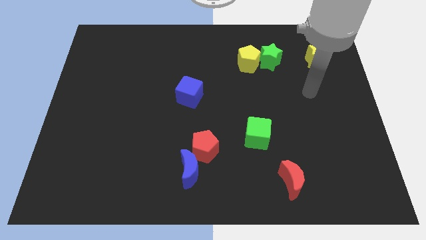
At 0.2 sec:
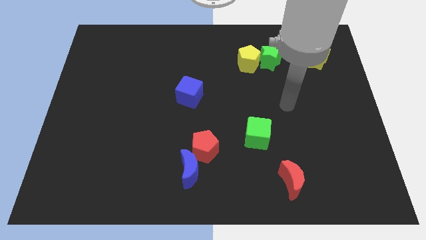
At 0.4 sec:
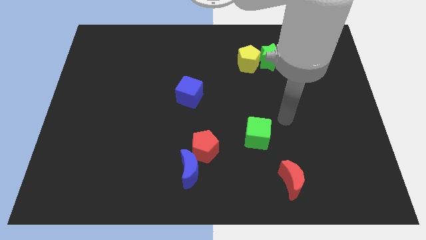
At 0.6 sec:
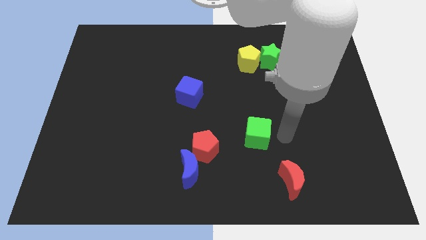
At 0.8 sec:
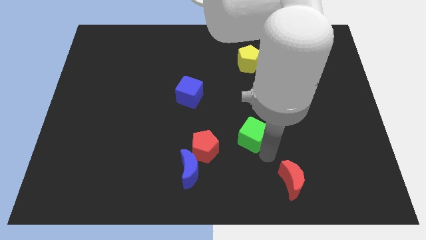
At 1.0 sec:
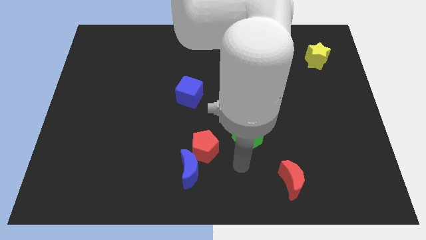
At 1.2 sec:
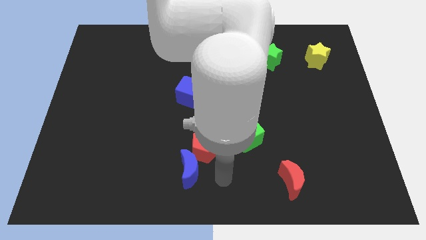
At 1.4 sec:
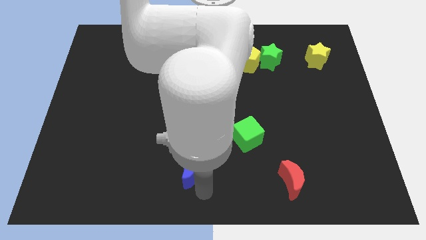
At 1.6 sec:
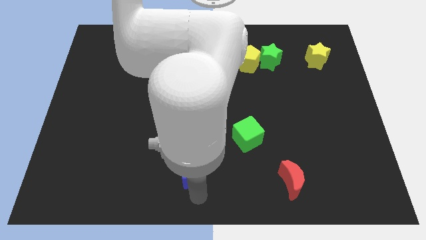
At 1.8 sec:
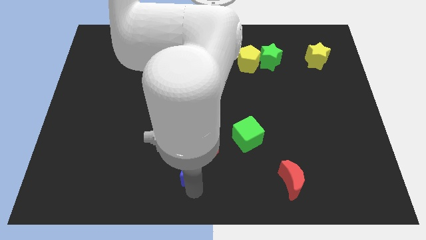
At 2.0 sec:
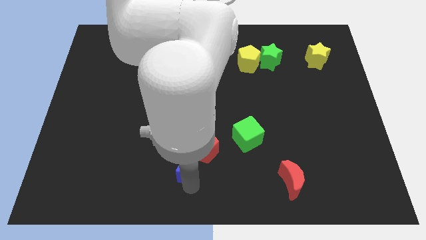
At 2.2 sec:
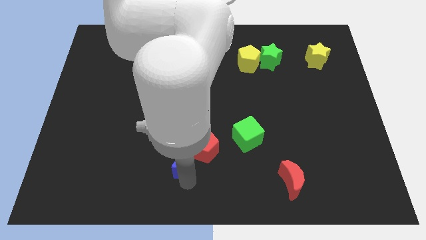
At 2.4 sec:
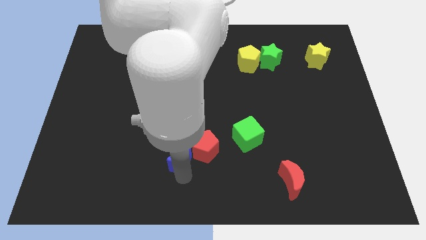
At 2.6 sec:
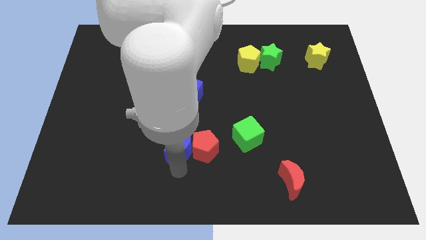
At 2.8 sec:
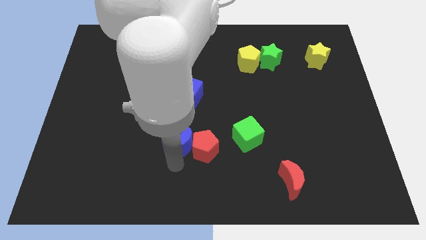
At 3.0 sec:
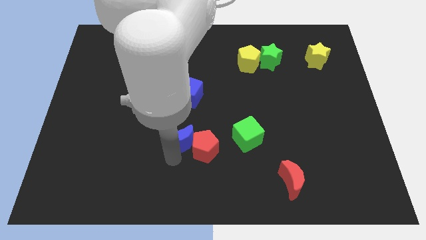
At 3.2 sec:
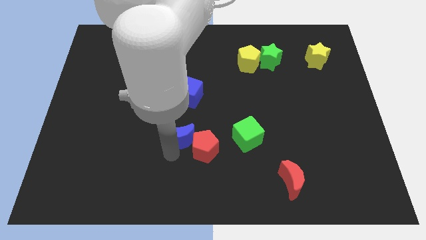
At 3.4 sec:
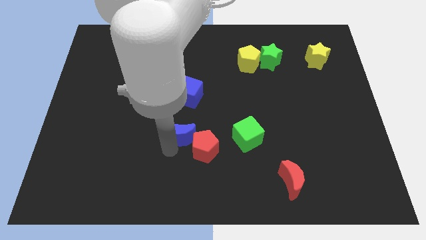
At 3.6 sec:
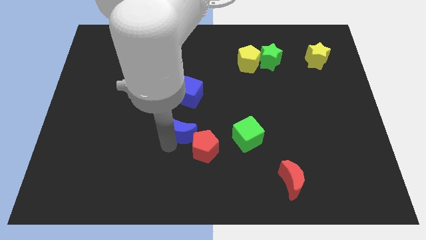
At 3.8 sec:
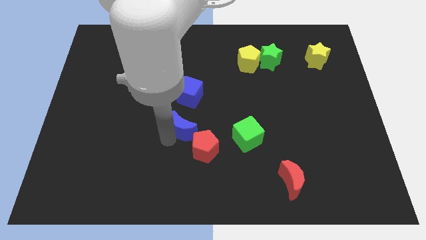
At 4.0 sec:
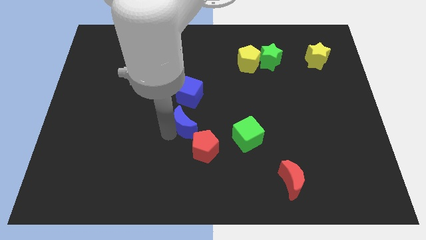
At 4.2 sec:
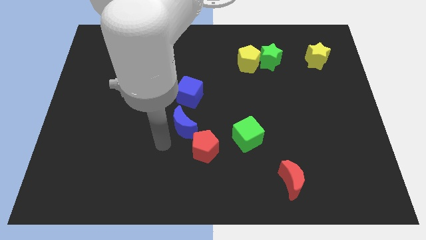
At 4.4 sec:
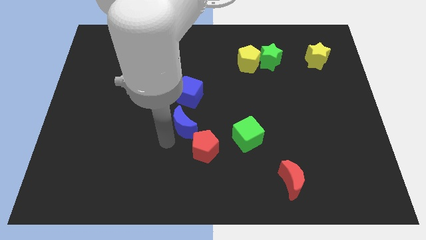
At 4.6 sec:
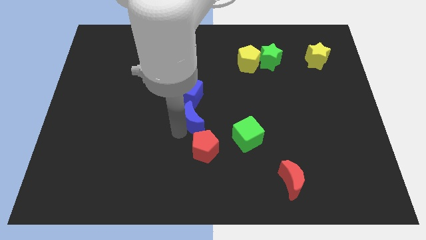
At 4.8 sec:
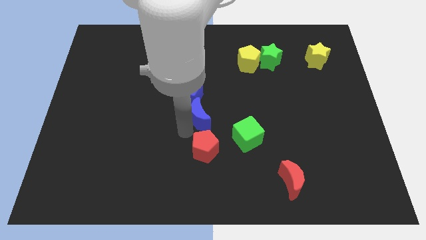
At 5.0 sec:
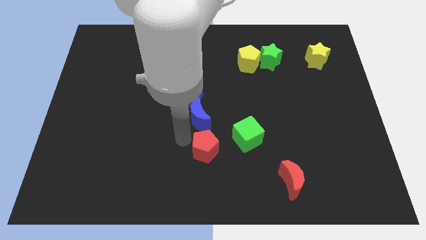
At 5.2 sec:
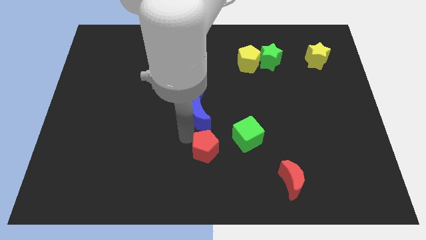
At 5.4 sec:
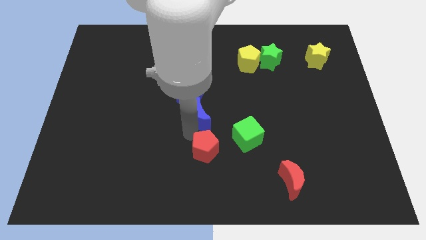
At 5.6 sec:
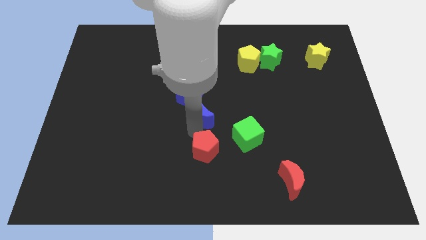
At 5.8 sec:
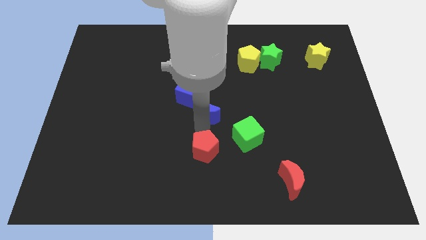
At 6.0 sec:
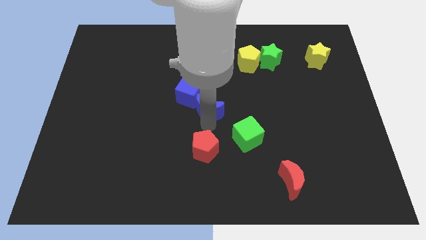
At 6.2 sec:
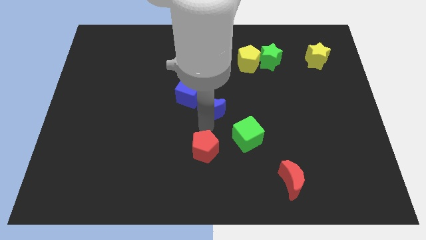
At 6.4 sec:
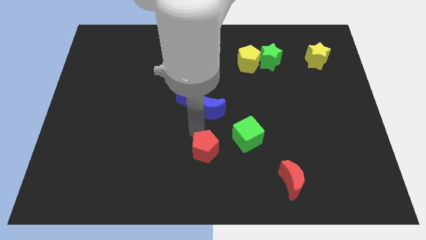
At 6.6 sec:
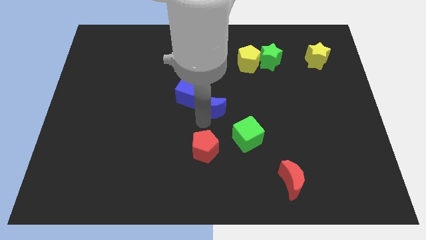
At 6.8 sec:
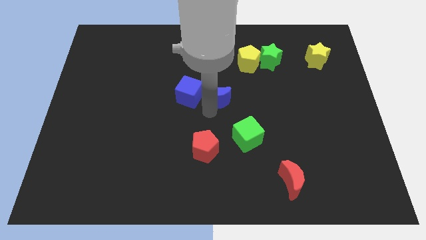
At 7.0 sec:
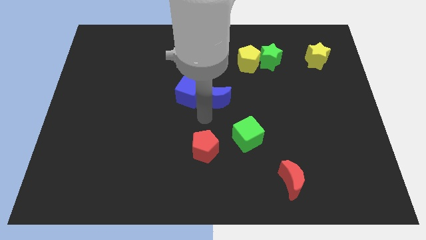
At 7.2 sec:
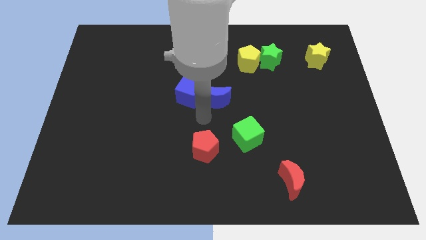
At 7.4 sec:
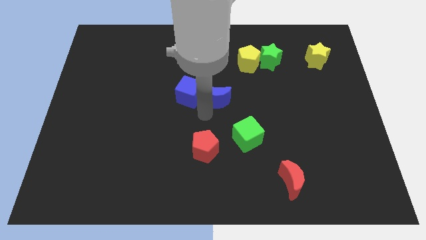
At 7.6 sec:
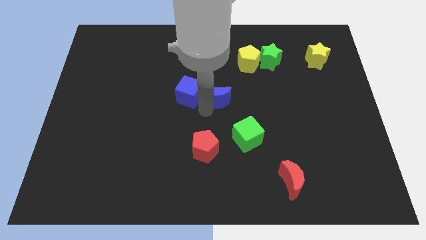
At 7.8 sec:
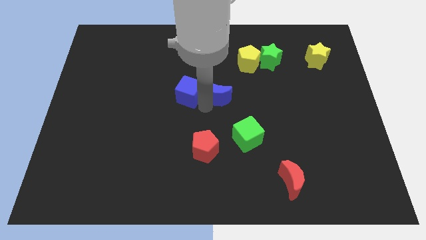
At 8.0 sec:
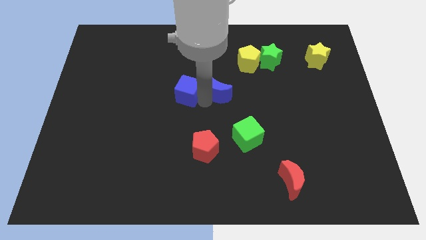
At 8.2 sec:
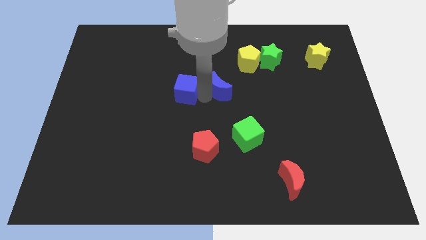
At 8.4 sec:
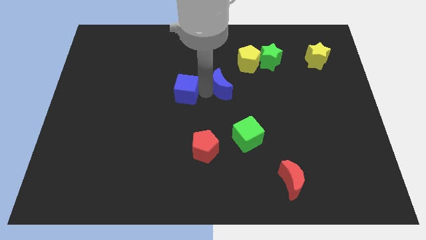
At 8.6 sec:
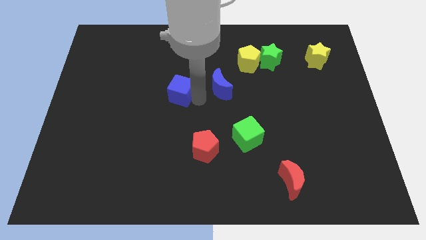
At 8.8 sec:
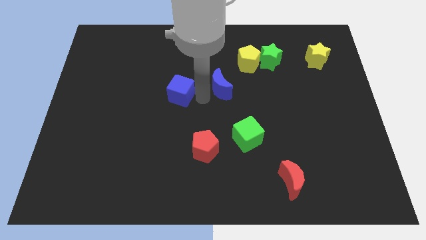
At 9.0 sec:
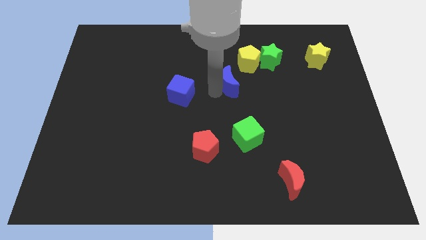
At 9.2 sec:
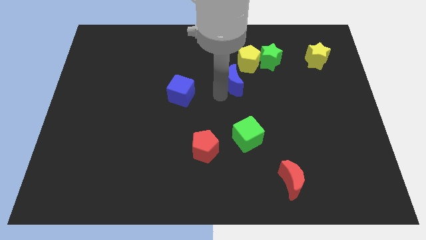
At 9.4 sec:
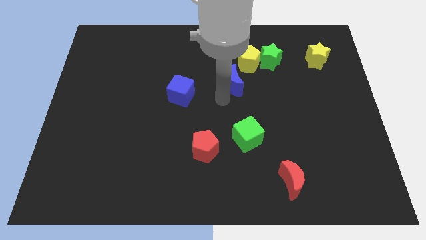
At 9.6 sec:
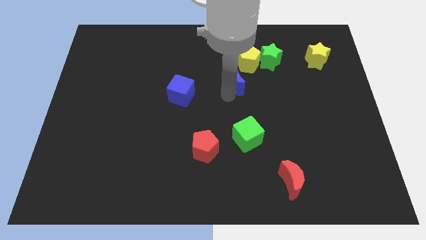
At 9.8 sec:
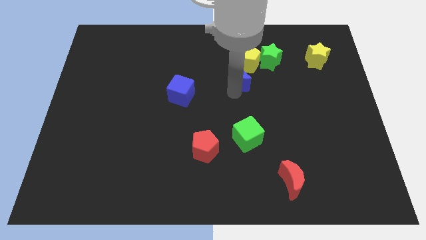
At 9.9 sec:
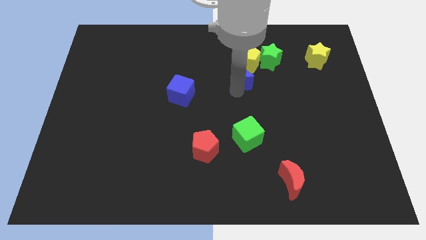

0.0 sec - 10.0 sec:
slide the blue moon close to the yellow pentagon

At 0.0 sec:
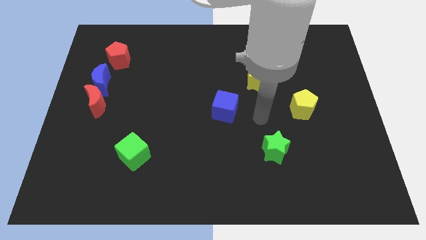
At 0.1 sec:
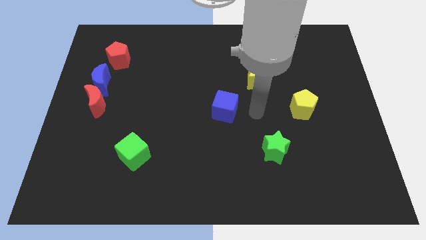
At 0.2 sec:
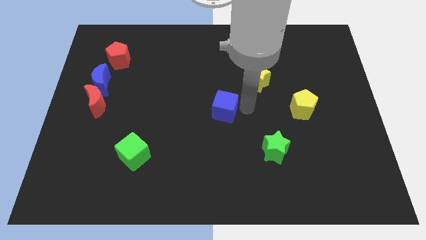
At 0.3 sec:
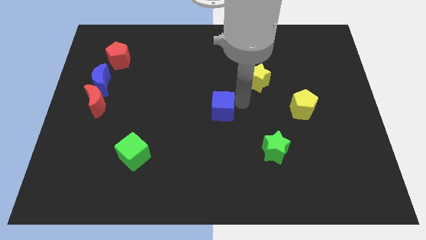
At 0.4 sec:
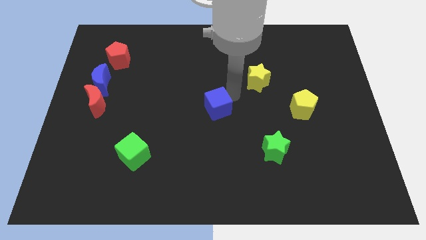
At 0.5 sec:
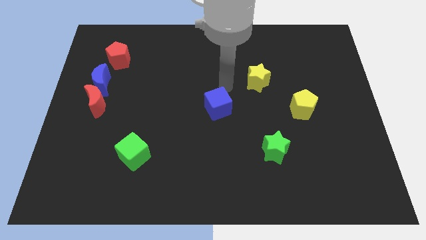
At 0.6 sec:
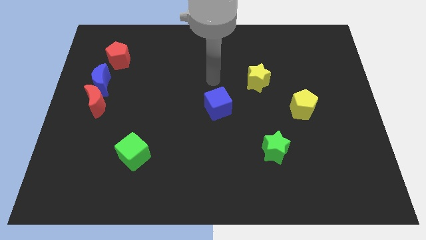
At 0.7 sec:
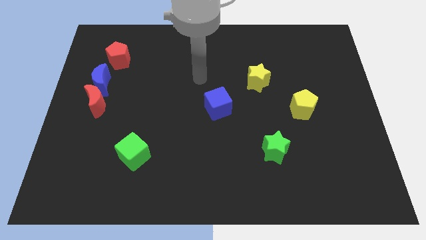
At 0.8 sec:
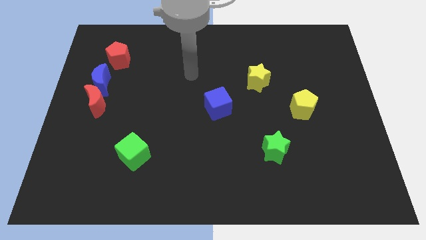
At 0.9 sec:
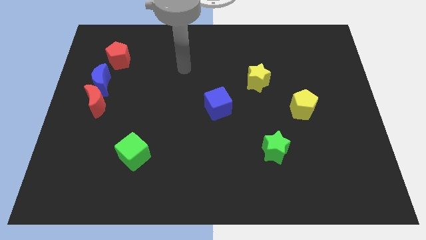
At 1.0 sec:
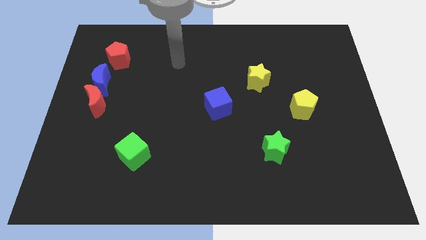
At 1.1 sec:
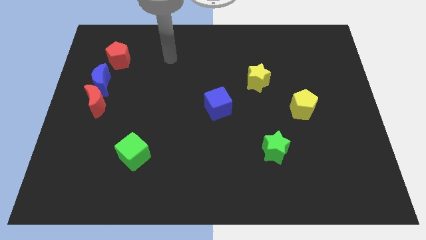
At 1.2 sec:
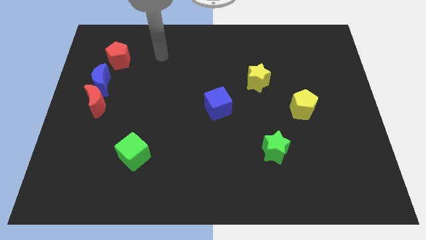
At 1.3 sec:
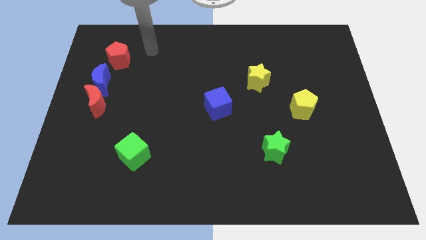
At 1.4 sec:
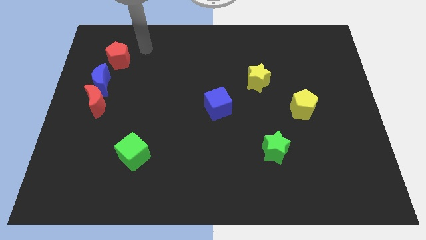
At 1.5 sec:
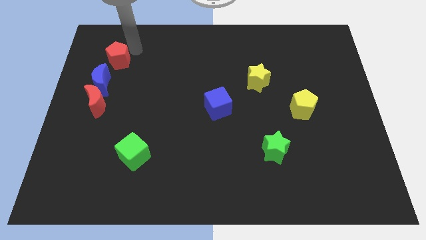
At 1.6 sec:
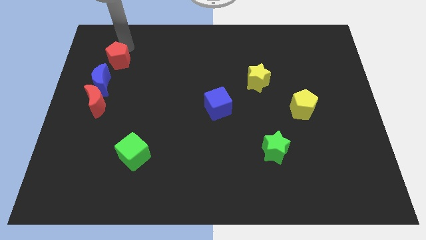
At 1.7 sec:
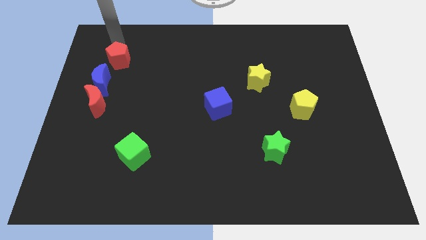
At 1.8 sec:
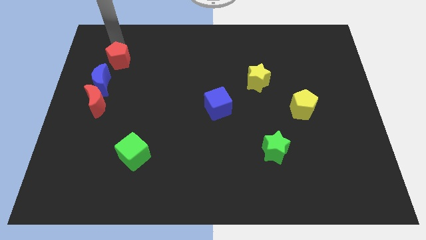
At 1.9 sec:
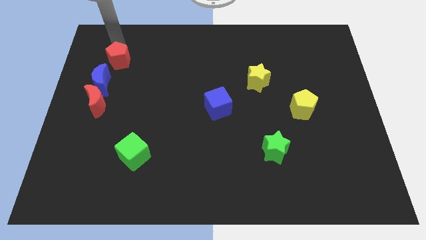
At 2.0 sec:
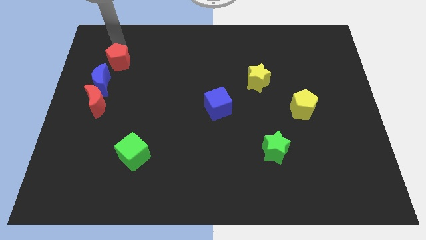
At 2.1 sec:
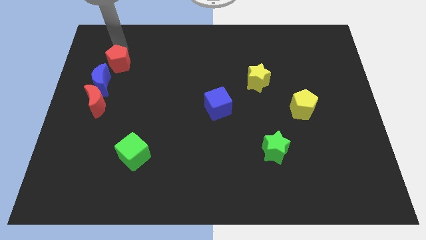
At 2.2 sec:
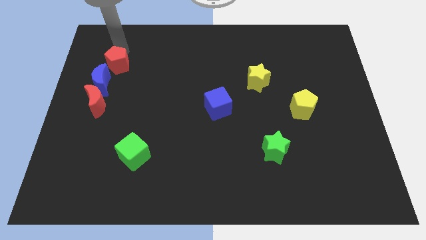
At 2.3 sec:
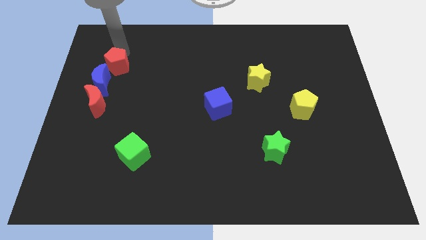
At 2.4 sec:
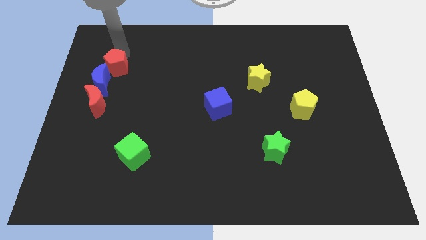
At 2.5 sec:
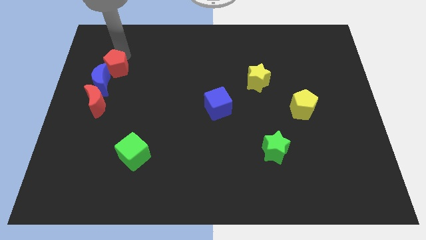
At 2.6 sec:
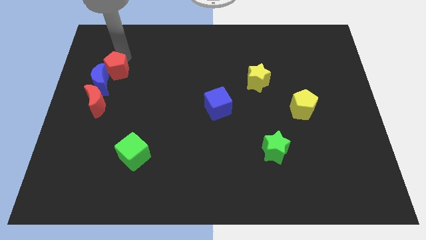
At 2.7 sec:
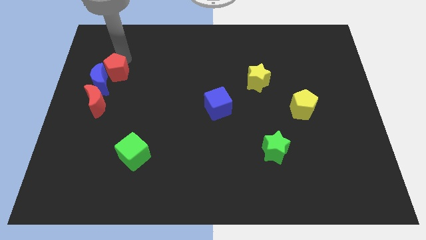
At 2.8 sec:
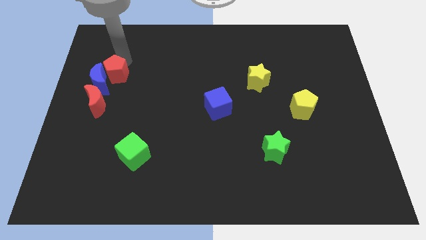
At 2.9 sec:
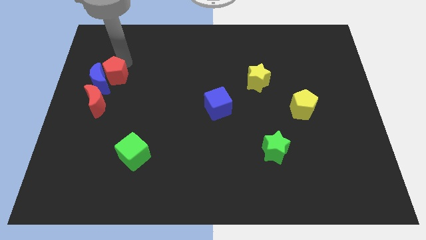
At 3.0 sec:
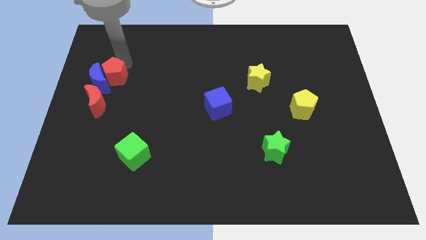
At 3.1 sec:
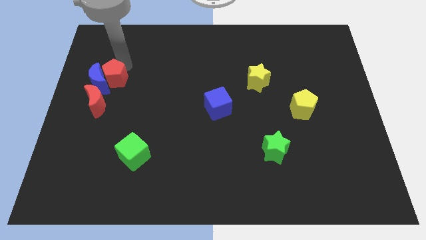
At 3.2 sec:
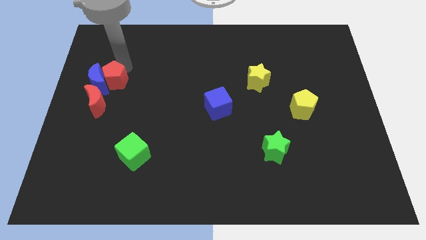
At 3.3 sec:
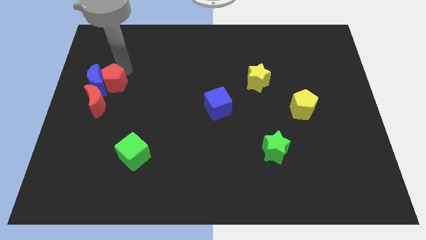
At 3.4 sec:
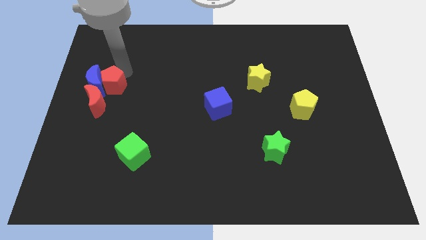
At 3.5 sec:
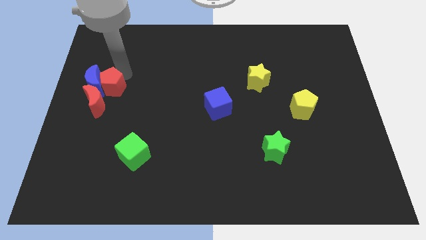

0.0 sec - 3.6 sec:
put the red pentagon towards the red moon
